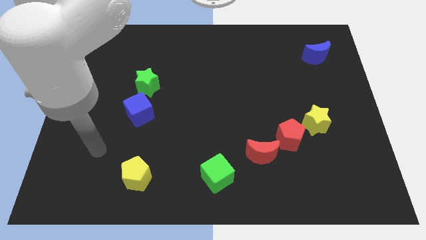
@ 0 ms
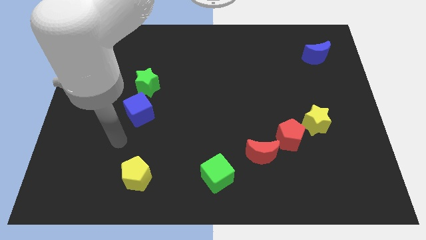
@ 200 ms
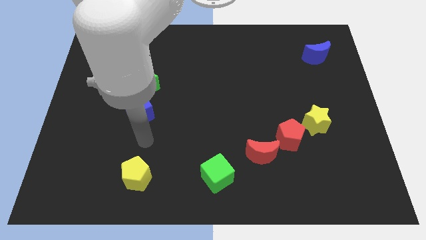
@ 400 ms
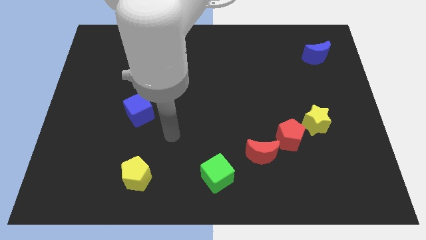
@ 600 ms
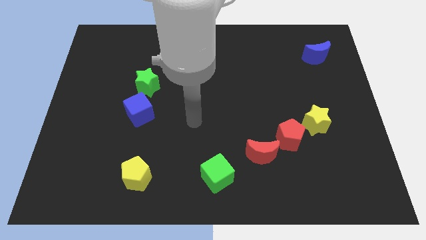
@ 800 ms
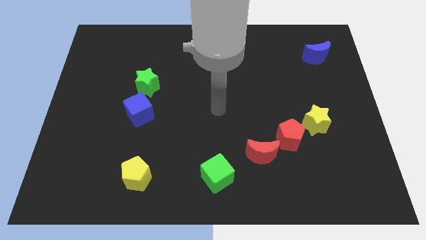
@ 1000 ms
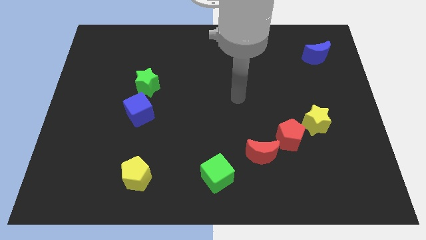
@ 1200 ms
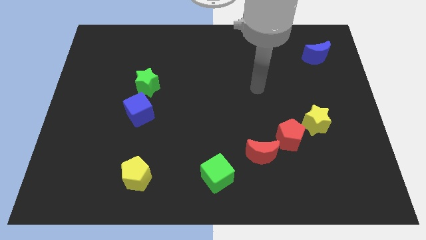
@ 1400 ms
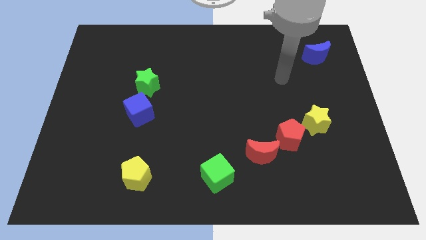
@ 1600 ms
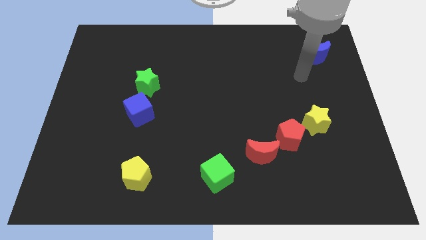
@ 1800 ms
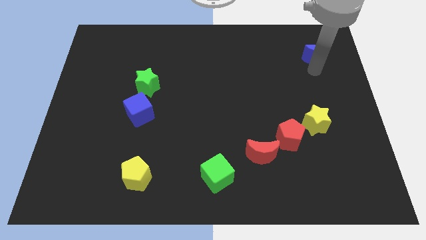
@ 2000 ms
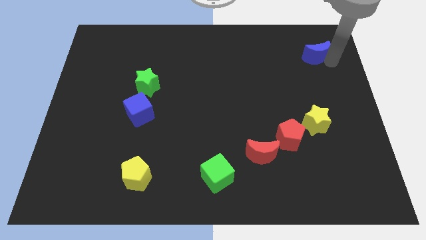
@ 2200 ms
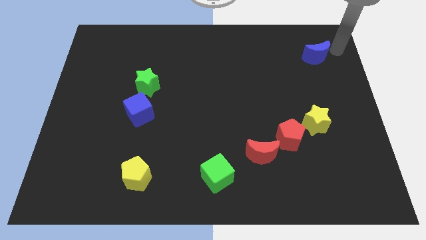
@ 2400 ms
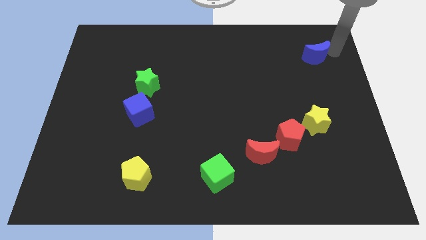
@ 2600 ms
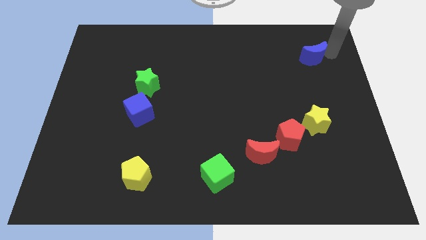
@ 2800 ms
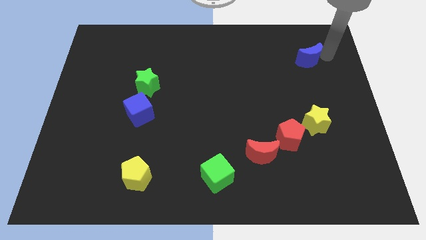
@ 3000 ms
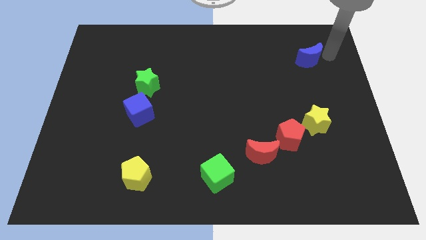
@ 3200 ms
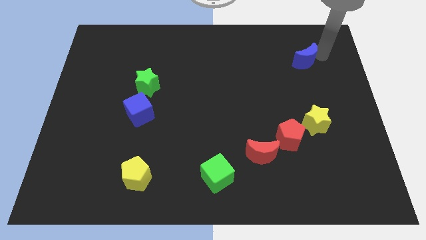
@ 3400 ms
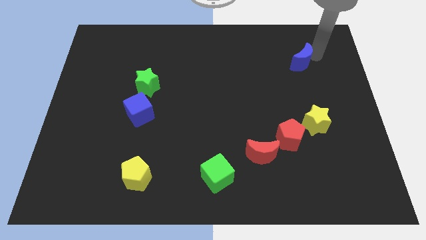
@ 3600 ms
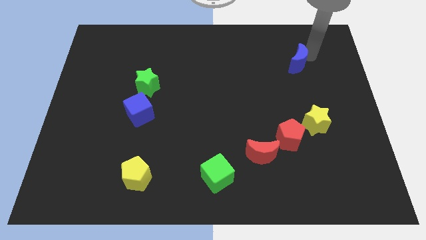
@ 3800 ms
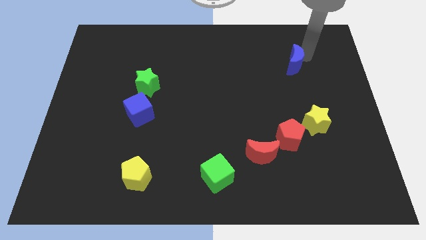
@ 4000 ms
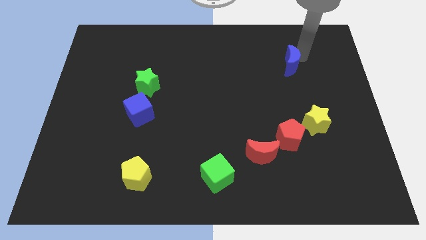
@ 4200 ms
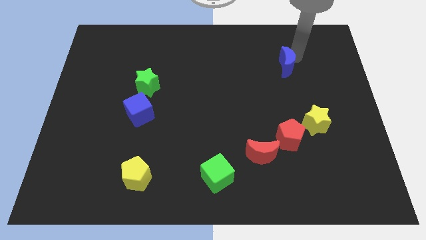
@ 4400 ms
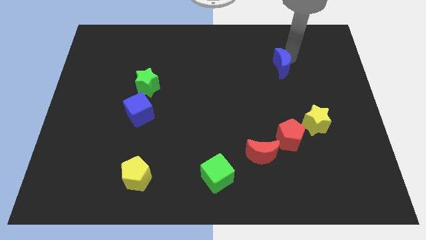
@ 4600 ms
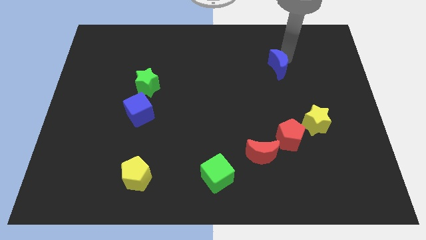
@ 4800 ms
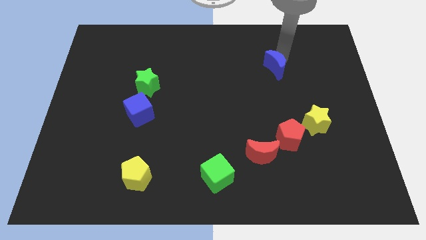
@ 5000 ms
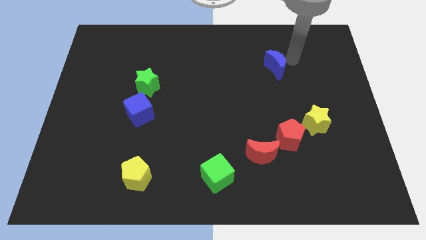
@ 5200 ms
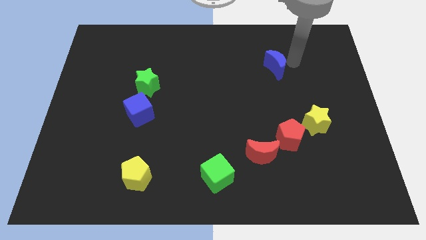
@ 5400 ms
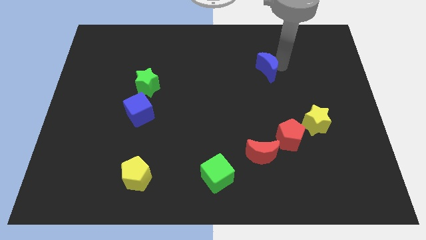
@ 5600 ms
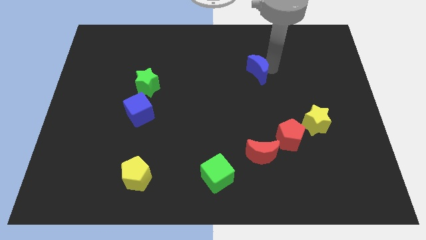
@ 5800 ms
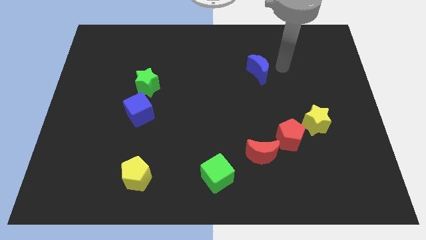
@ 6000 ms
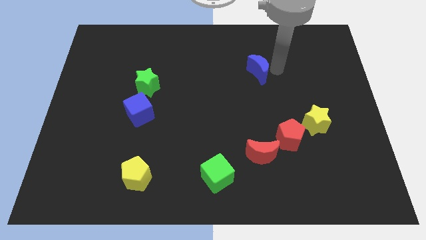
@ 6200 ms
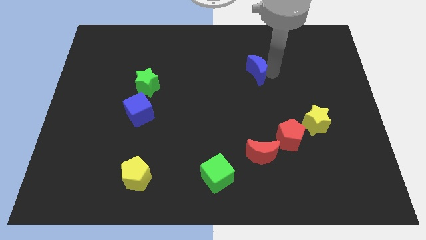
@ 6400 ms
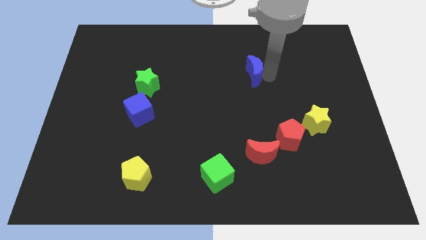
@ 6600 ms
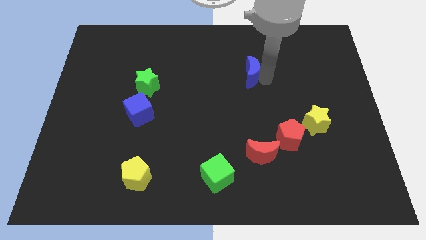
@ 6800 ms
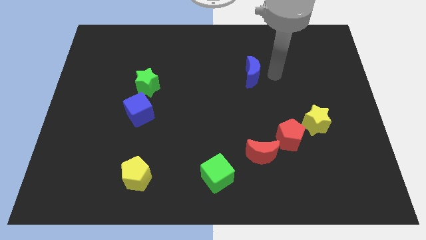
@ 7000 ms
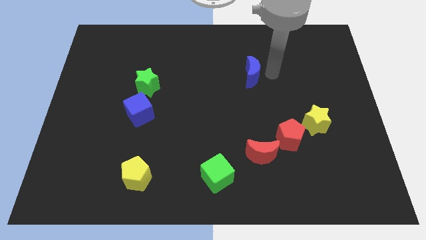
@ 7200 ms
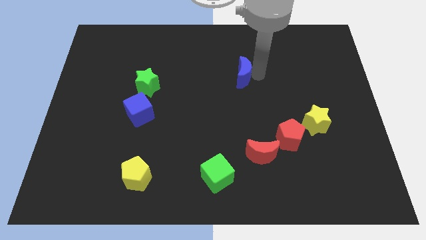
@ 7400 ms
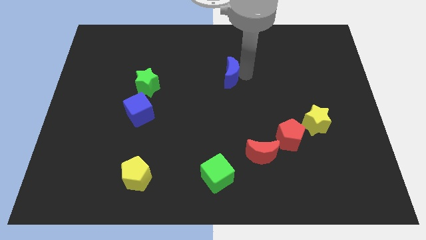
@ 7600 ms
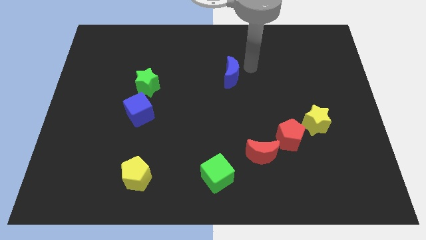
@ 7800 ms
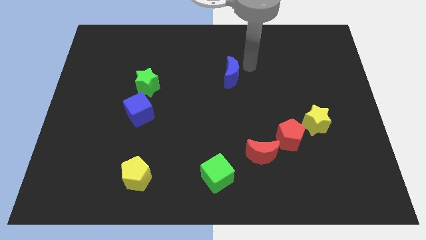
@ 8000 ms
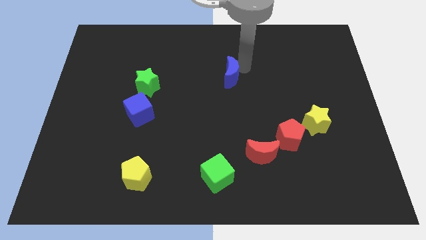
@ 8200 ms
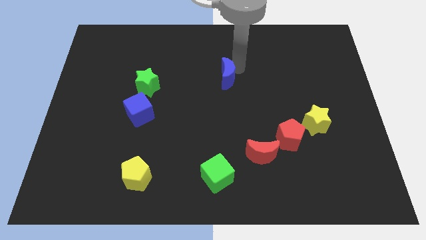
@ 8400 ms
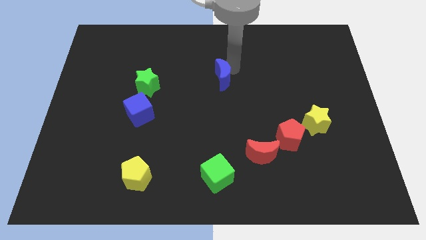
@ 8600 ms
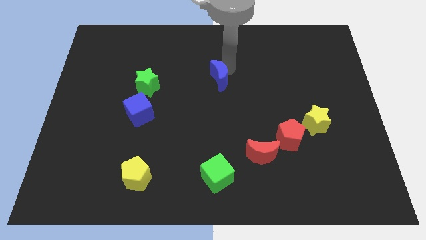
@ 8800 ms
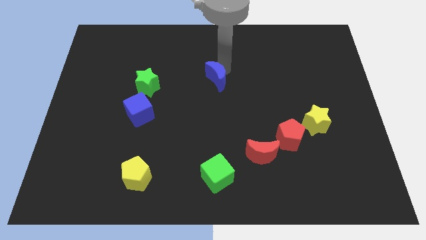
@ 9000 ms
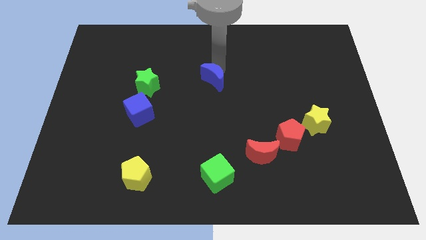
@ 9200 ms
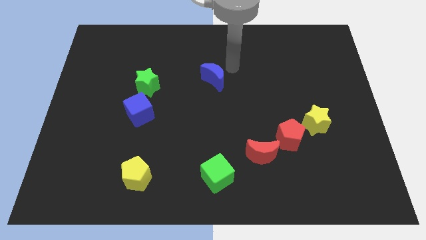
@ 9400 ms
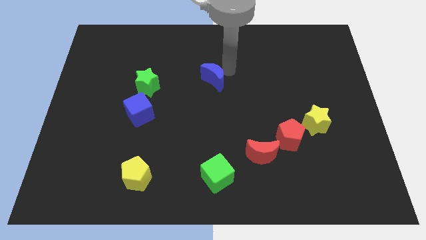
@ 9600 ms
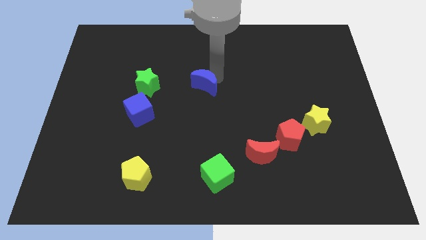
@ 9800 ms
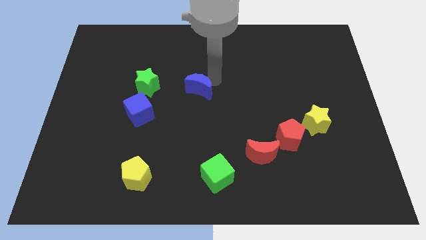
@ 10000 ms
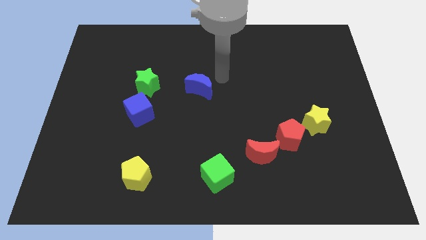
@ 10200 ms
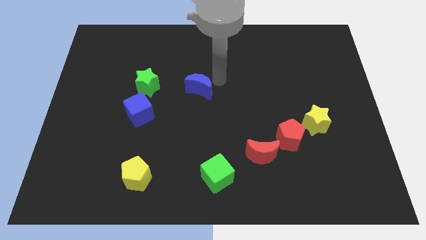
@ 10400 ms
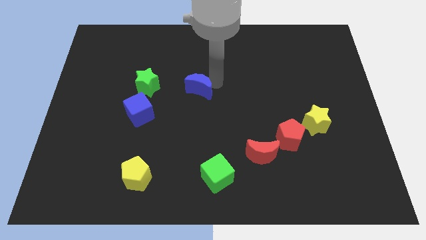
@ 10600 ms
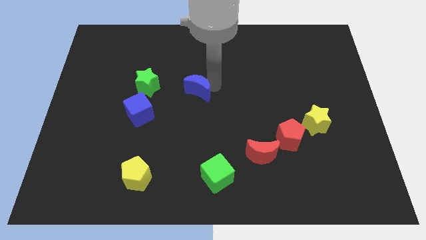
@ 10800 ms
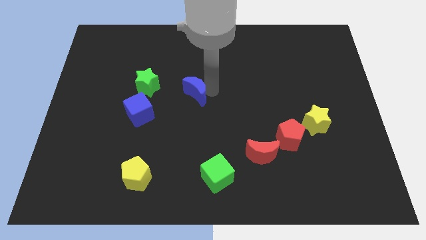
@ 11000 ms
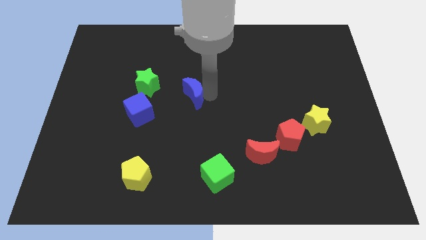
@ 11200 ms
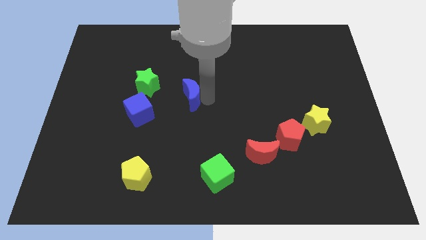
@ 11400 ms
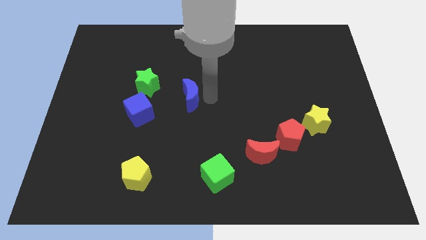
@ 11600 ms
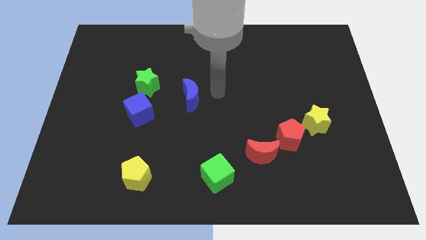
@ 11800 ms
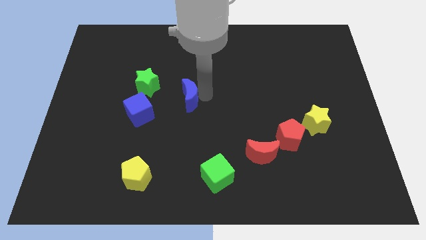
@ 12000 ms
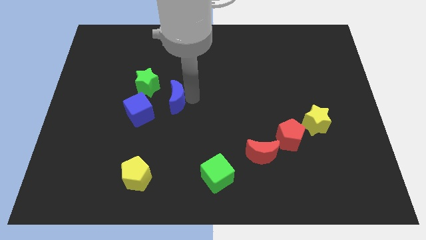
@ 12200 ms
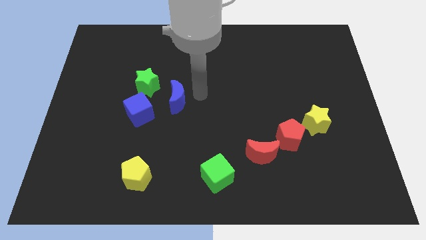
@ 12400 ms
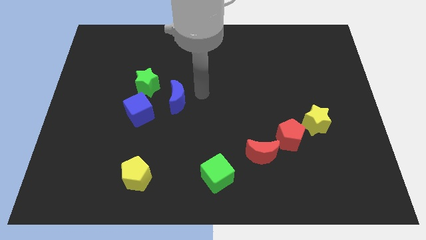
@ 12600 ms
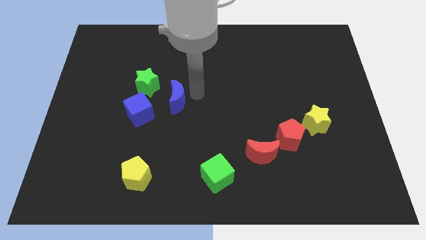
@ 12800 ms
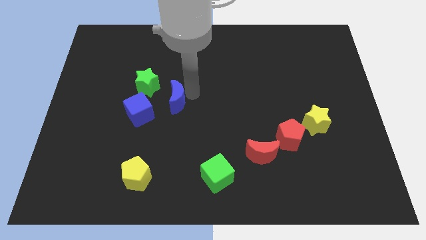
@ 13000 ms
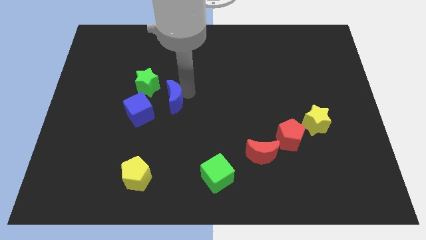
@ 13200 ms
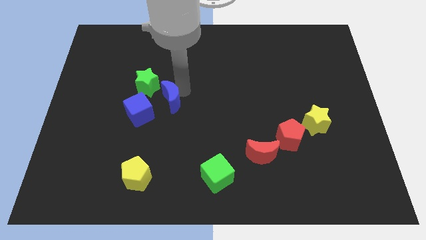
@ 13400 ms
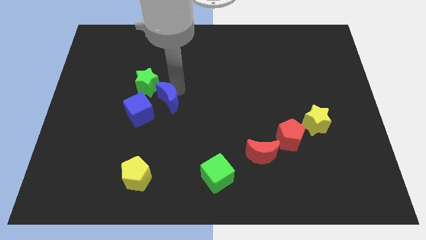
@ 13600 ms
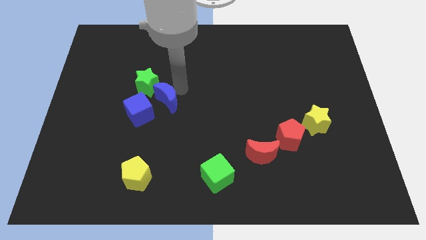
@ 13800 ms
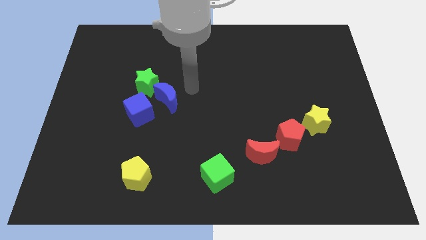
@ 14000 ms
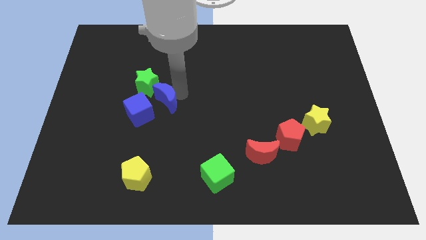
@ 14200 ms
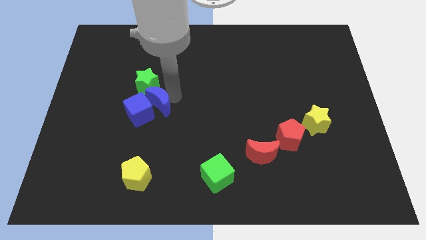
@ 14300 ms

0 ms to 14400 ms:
move the blue moon next to the blue cube
